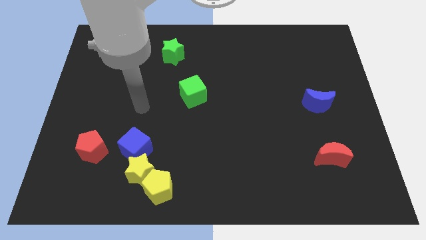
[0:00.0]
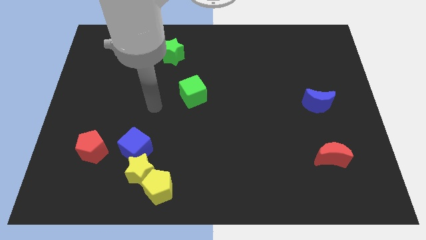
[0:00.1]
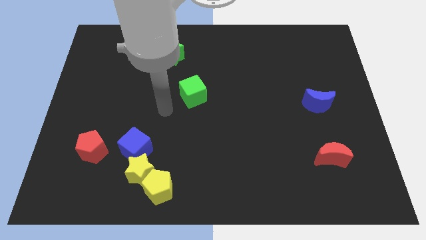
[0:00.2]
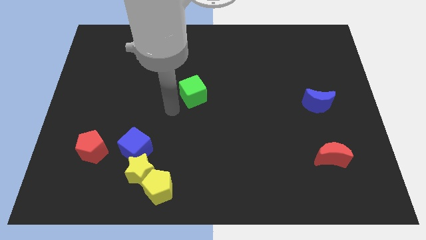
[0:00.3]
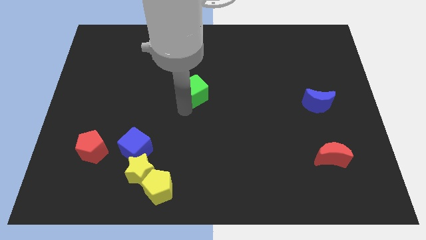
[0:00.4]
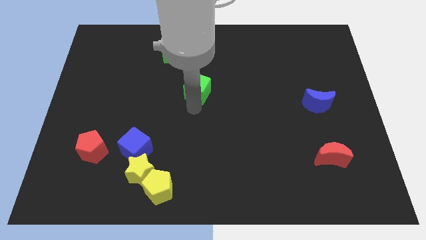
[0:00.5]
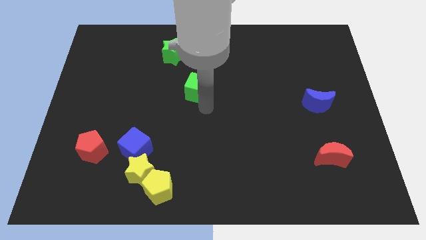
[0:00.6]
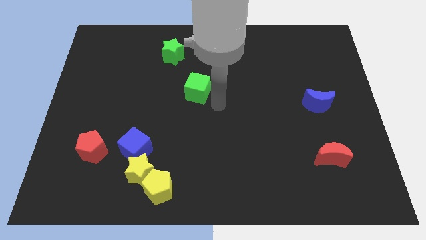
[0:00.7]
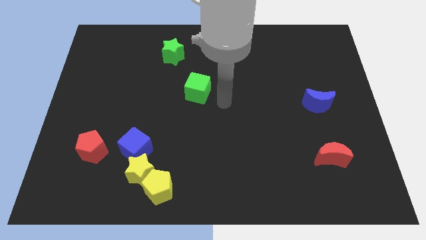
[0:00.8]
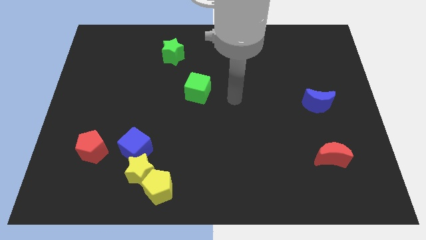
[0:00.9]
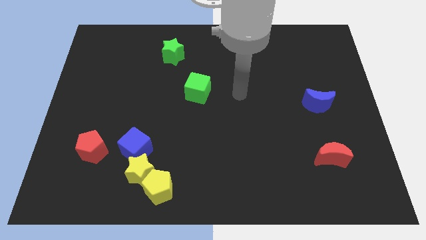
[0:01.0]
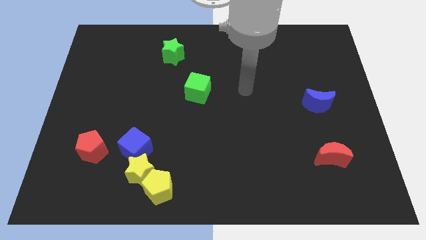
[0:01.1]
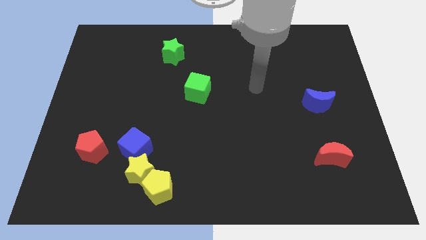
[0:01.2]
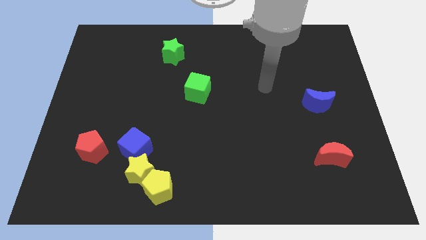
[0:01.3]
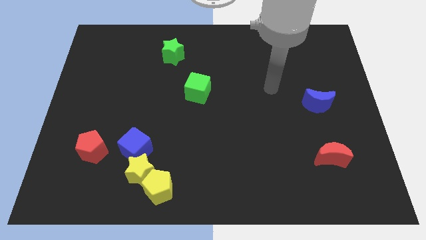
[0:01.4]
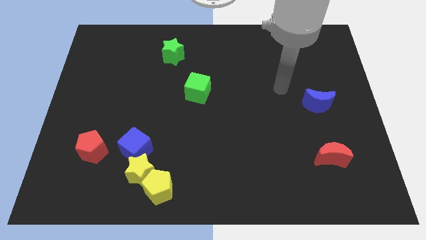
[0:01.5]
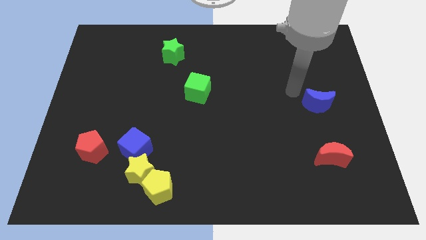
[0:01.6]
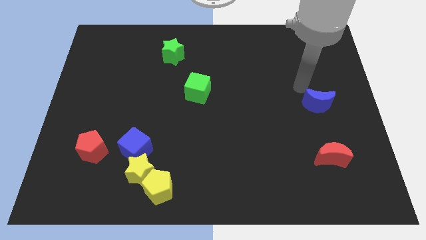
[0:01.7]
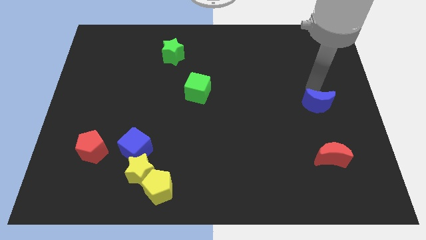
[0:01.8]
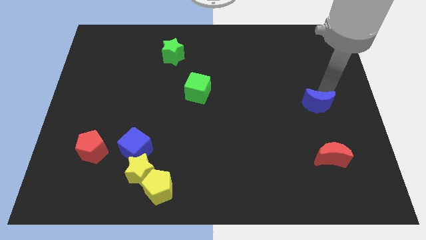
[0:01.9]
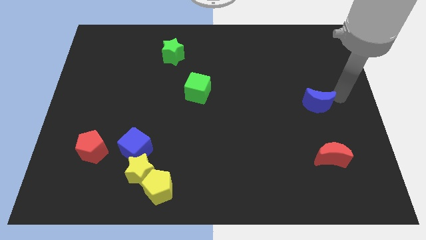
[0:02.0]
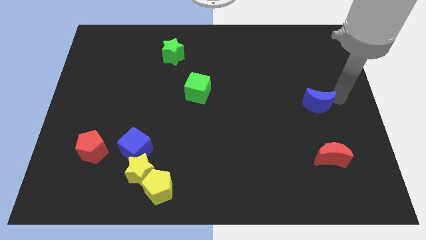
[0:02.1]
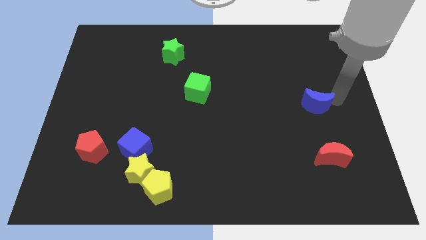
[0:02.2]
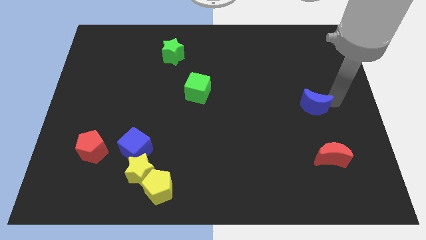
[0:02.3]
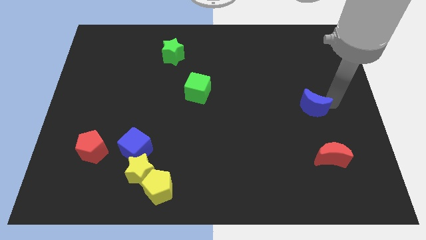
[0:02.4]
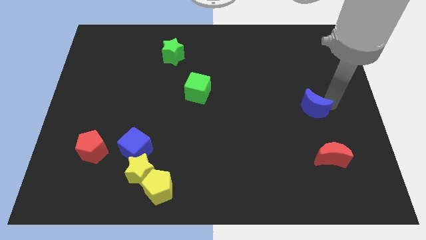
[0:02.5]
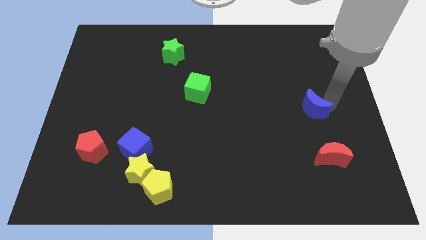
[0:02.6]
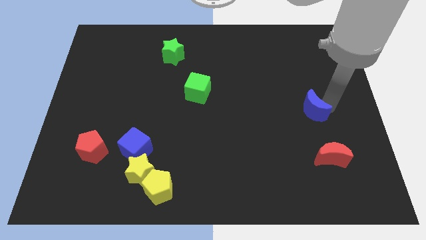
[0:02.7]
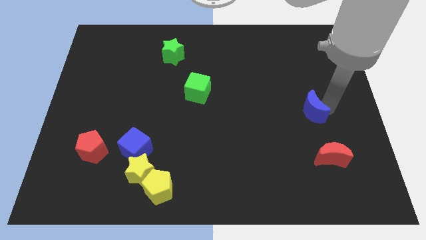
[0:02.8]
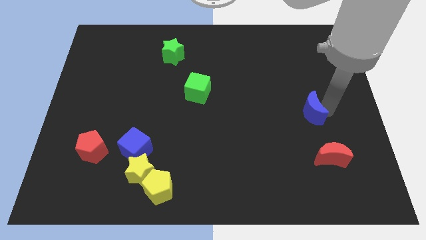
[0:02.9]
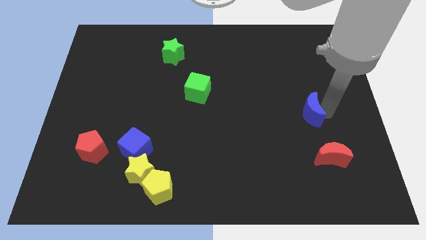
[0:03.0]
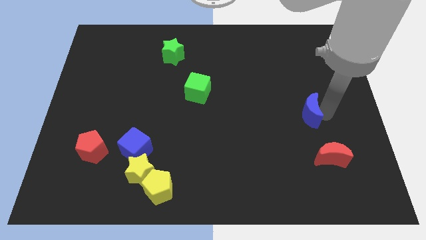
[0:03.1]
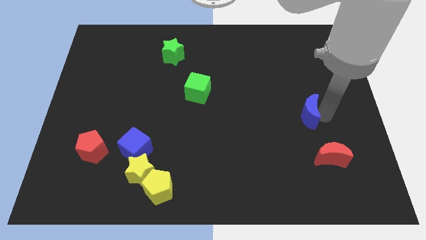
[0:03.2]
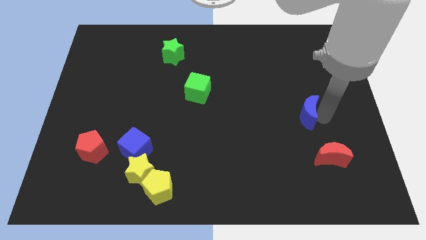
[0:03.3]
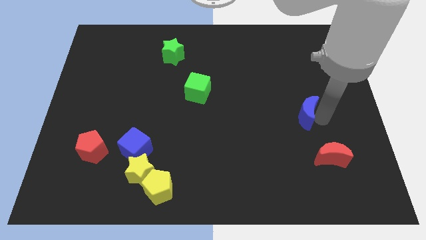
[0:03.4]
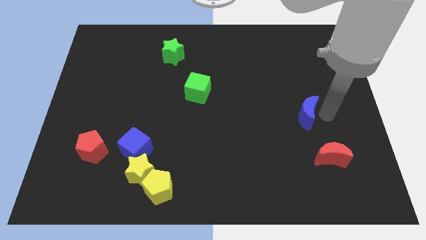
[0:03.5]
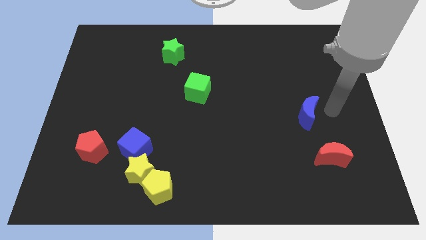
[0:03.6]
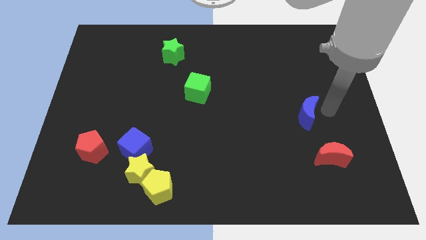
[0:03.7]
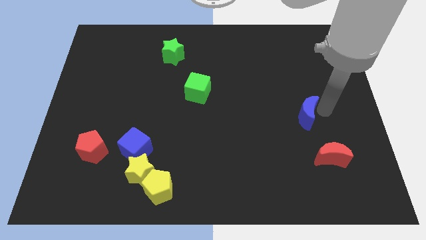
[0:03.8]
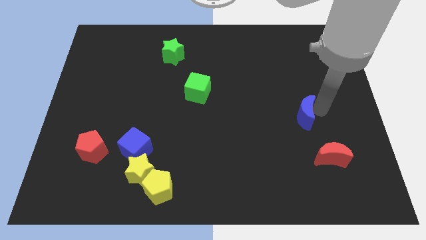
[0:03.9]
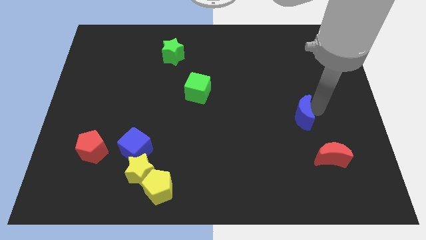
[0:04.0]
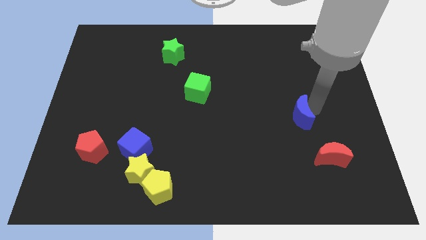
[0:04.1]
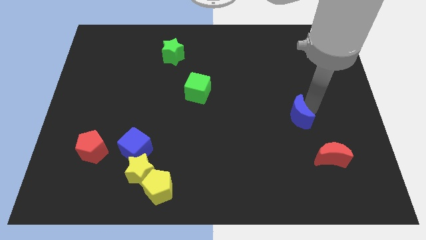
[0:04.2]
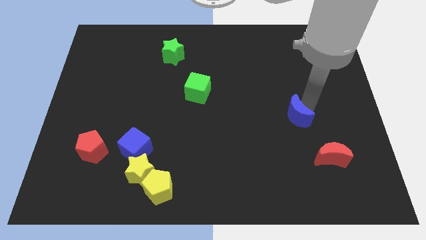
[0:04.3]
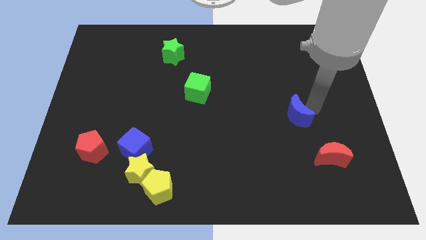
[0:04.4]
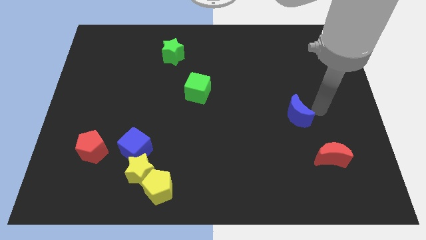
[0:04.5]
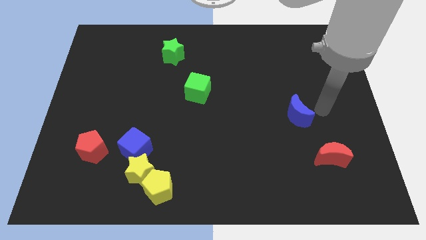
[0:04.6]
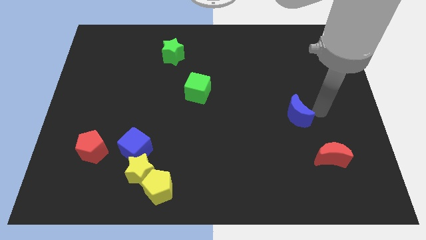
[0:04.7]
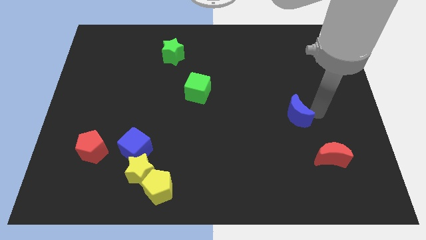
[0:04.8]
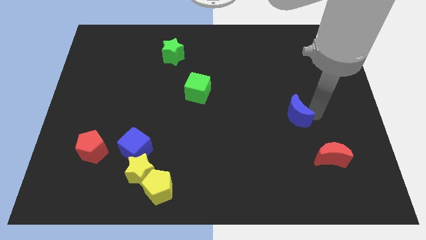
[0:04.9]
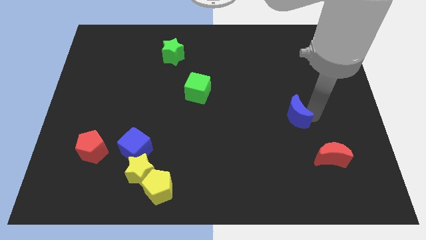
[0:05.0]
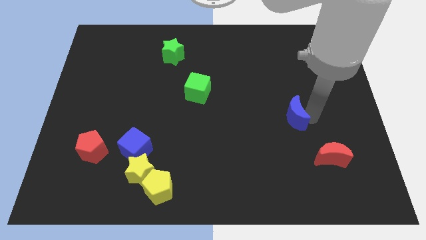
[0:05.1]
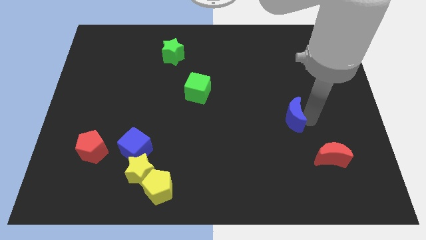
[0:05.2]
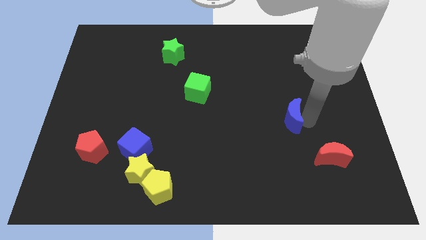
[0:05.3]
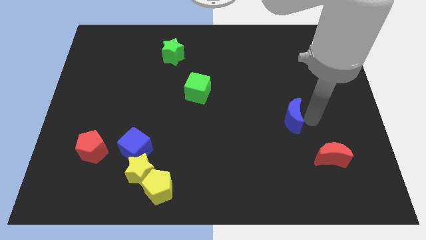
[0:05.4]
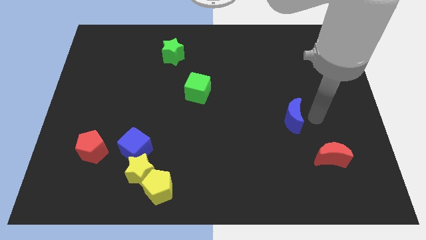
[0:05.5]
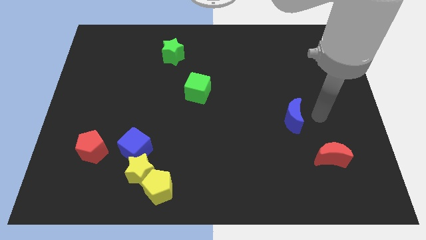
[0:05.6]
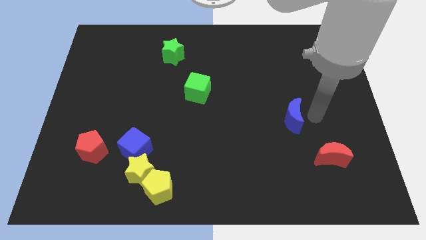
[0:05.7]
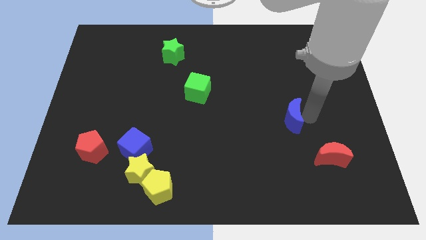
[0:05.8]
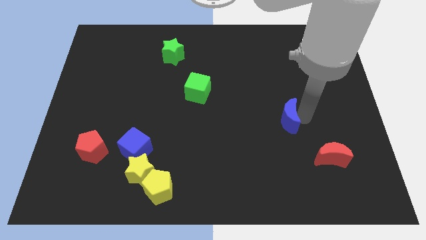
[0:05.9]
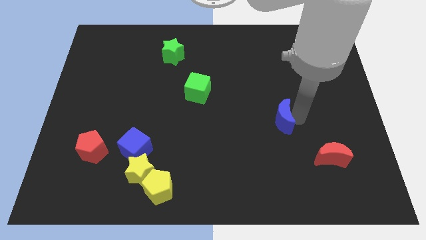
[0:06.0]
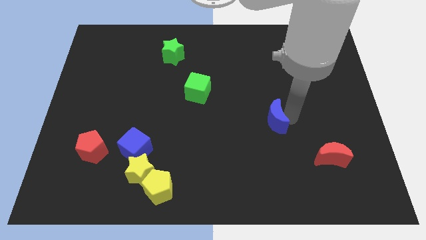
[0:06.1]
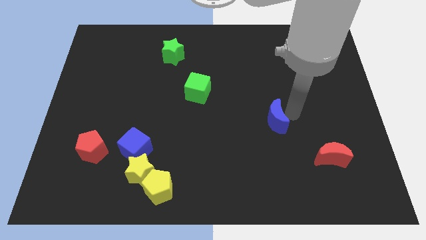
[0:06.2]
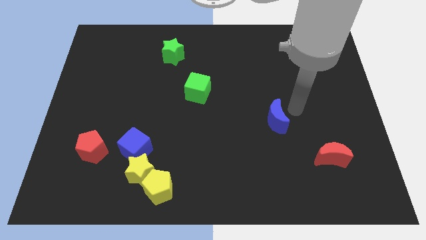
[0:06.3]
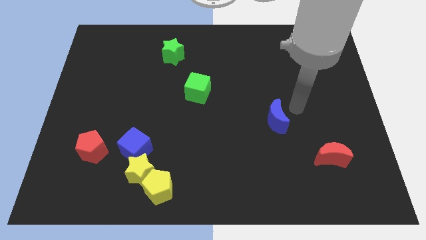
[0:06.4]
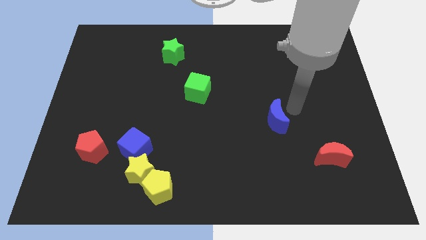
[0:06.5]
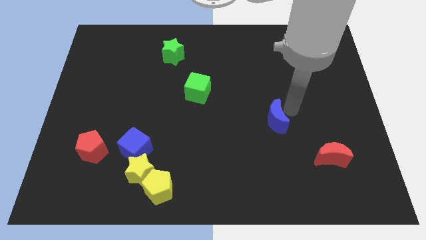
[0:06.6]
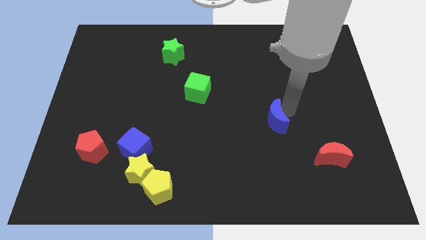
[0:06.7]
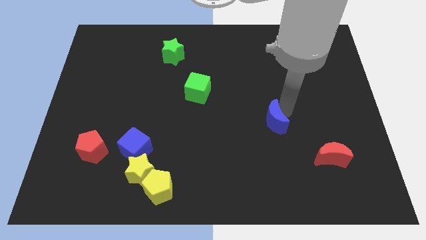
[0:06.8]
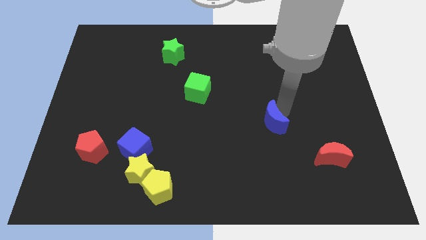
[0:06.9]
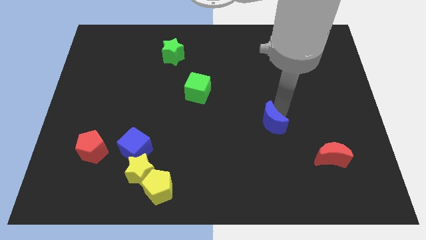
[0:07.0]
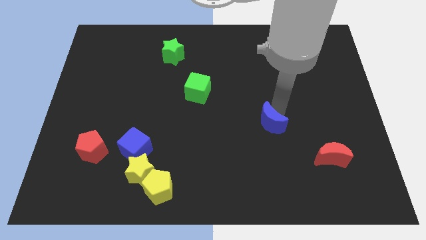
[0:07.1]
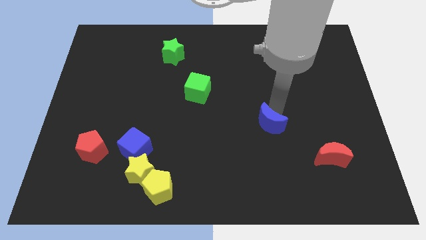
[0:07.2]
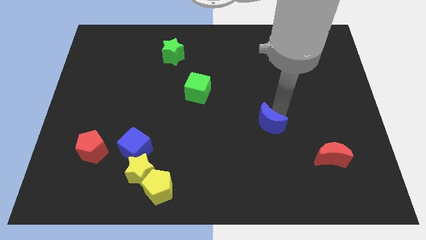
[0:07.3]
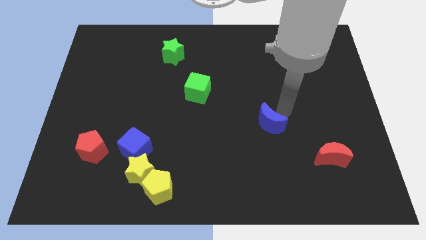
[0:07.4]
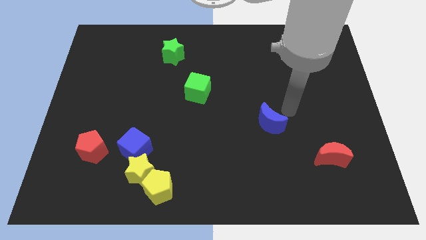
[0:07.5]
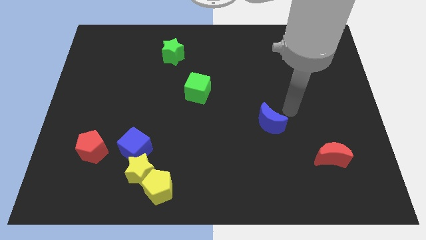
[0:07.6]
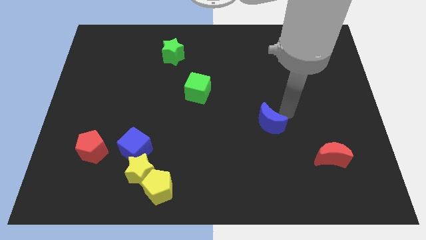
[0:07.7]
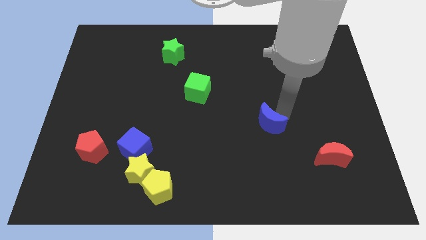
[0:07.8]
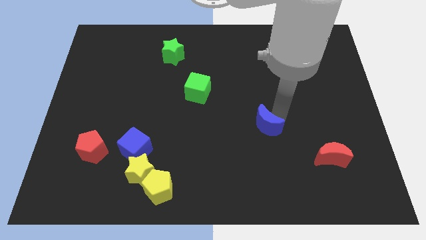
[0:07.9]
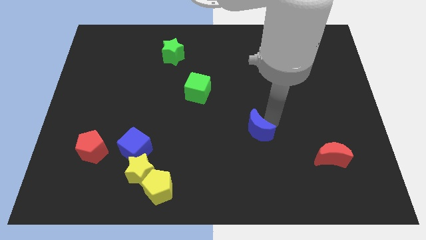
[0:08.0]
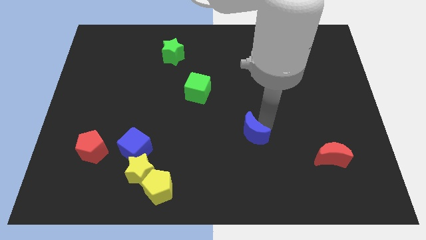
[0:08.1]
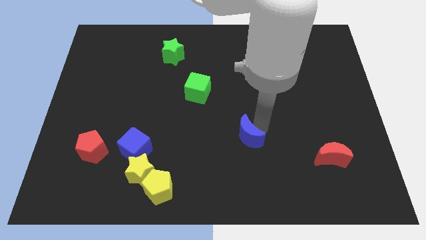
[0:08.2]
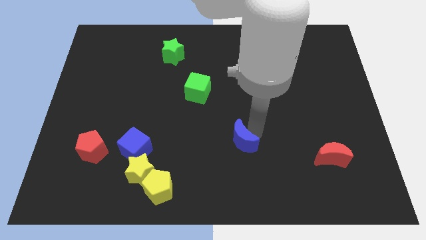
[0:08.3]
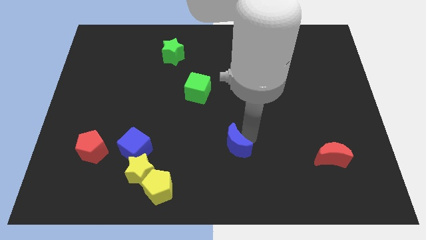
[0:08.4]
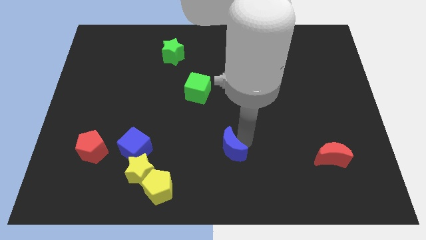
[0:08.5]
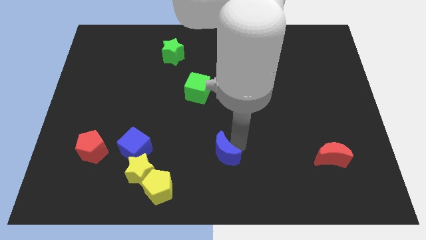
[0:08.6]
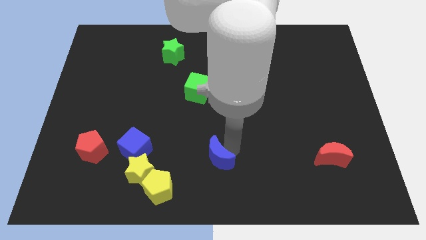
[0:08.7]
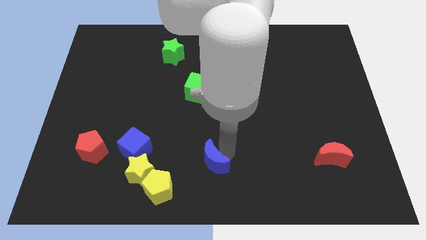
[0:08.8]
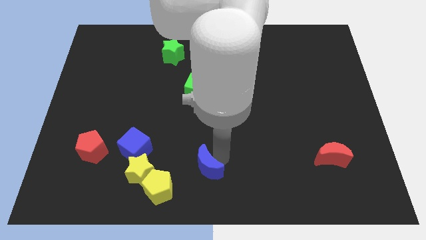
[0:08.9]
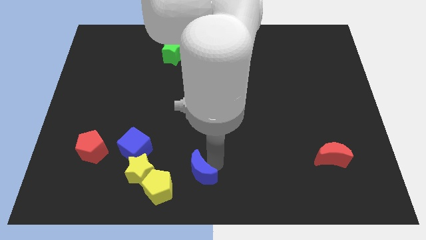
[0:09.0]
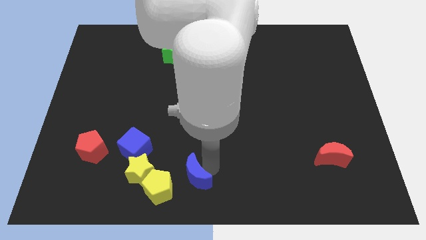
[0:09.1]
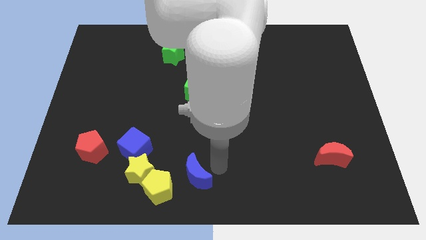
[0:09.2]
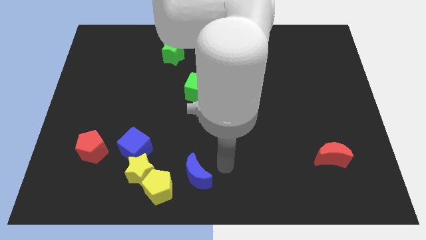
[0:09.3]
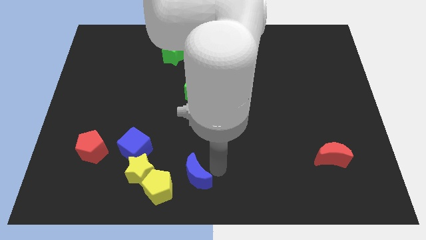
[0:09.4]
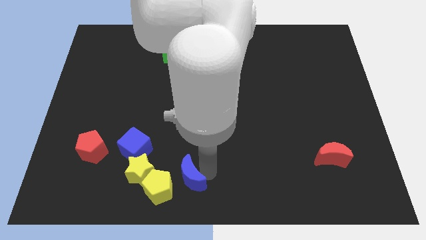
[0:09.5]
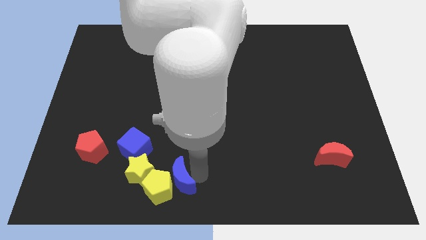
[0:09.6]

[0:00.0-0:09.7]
move the blue moon next to the yellow pentagon
